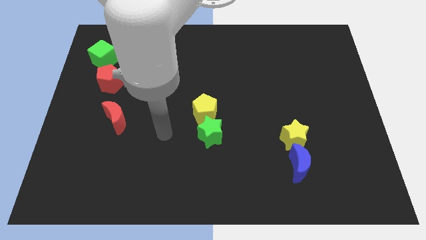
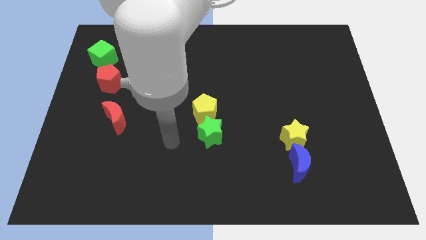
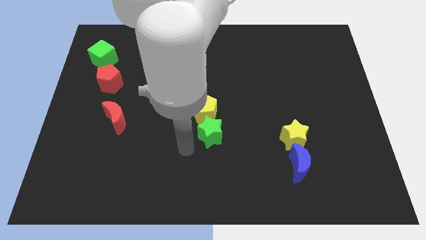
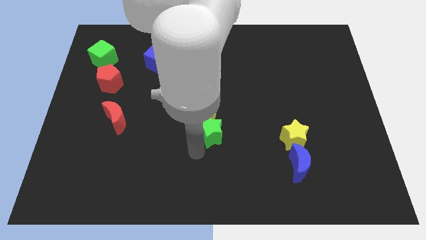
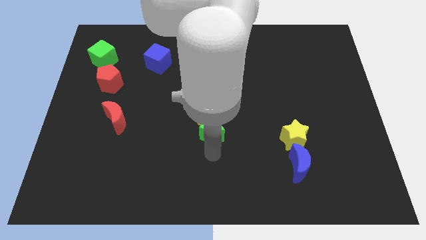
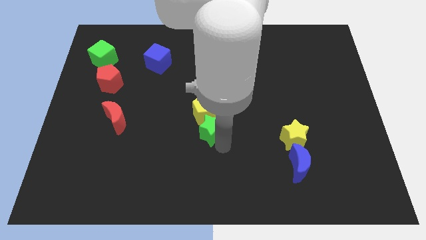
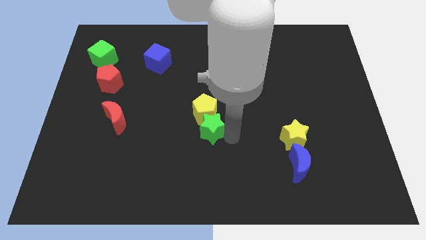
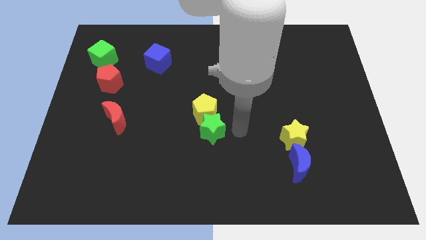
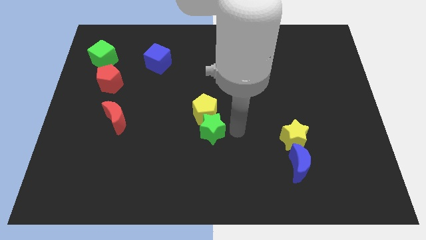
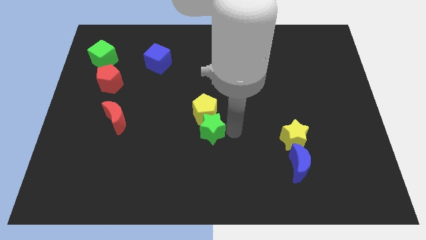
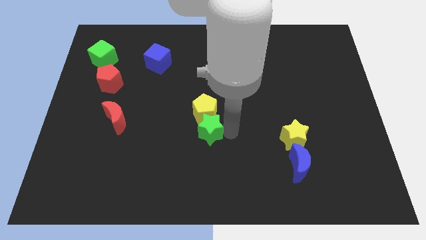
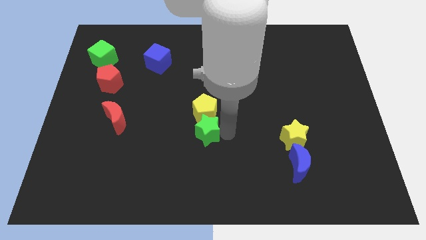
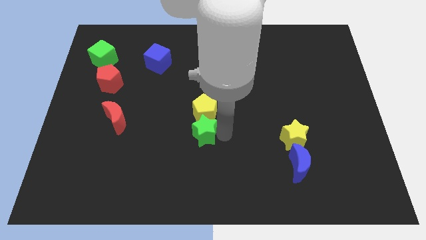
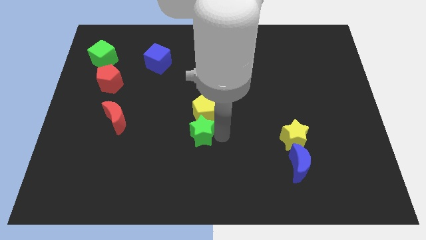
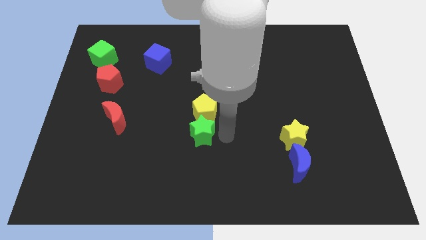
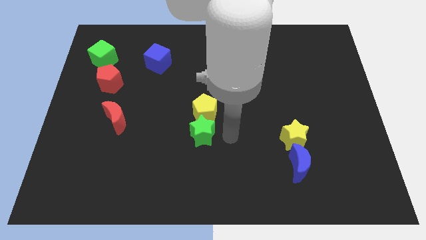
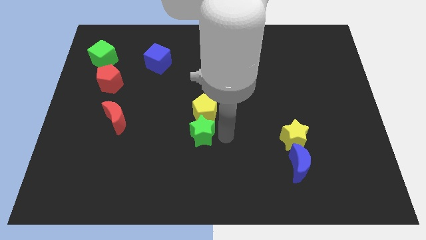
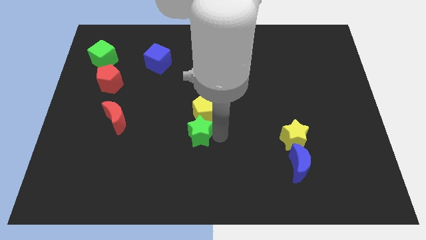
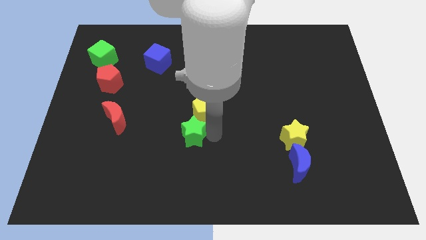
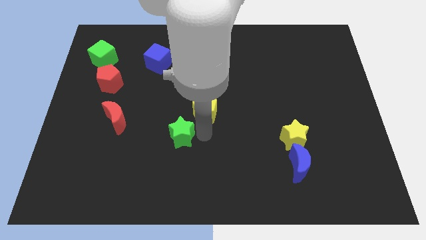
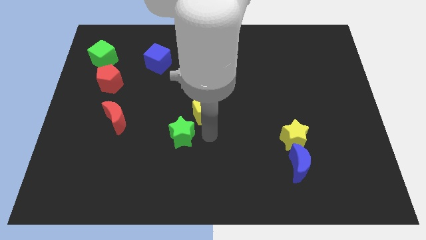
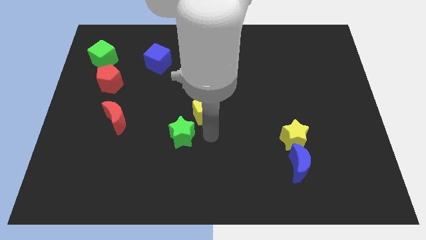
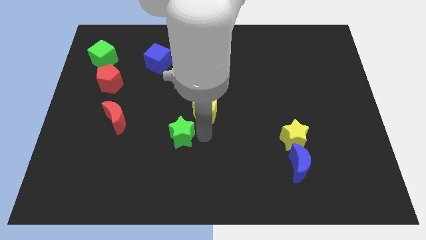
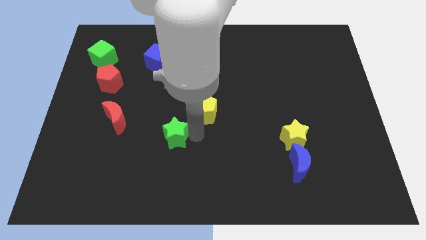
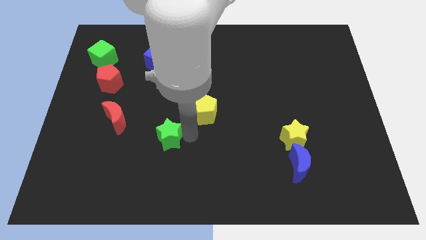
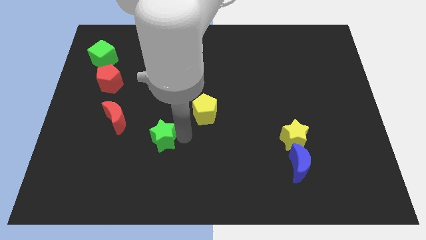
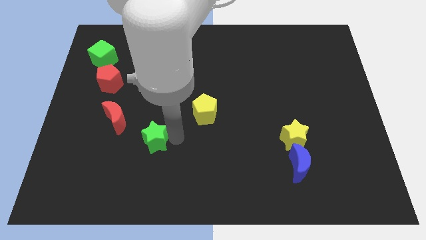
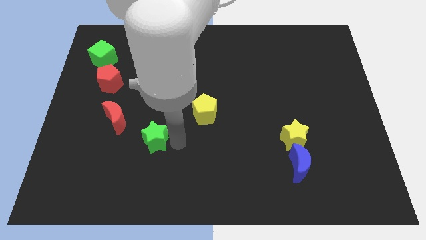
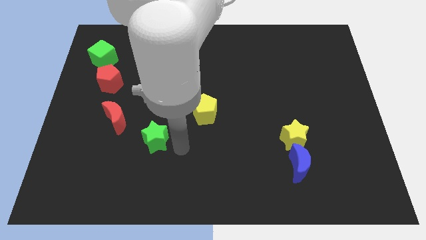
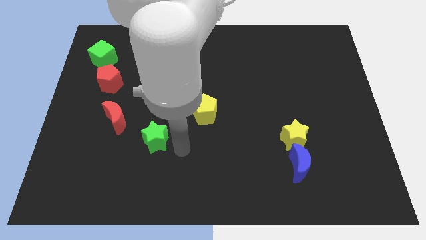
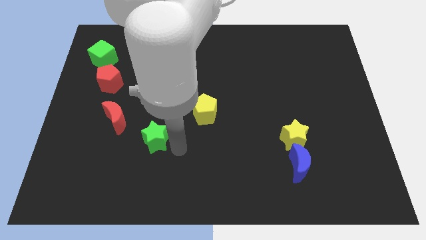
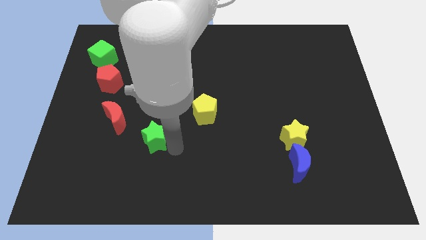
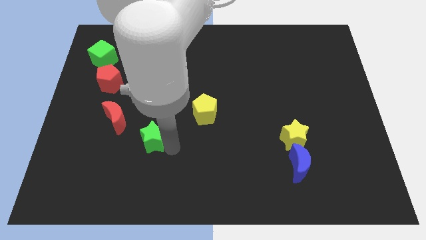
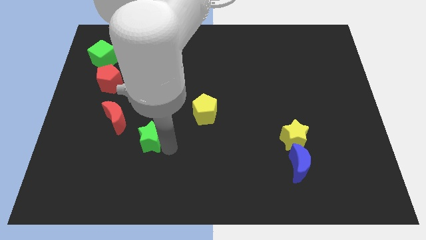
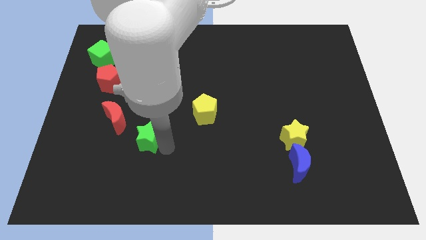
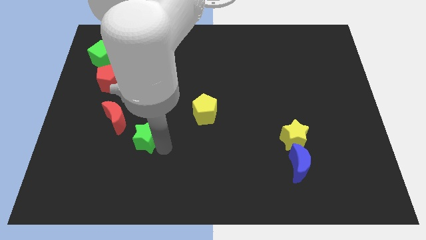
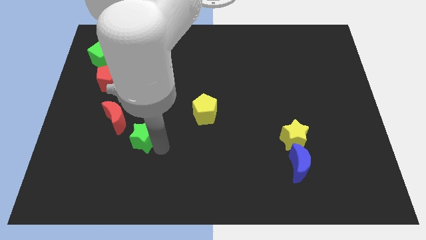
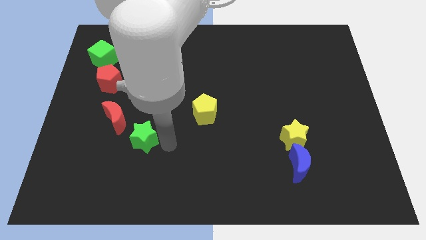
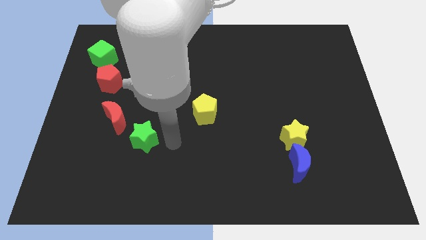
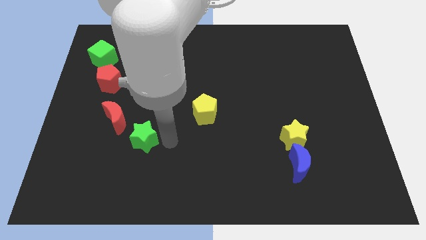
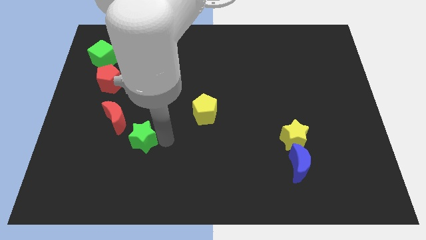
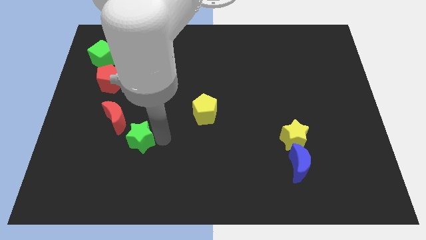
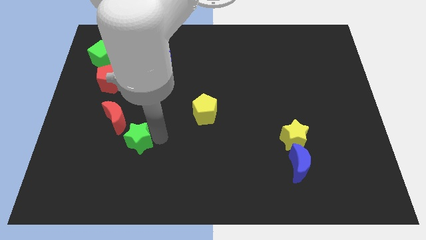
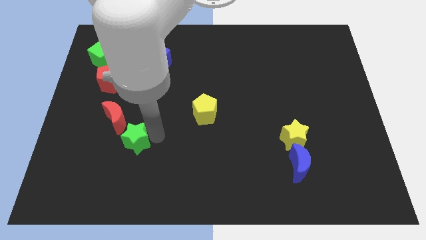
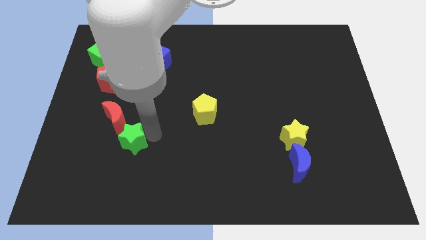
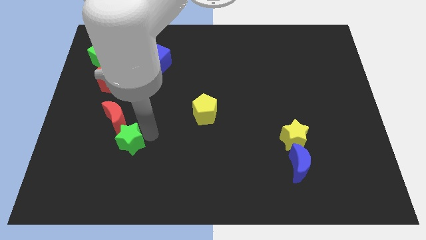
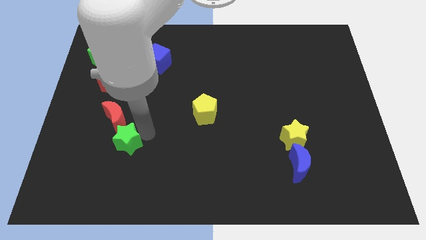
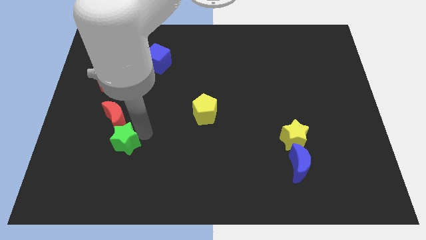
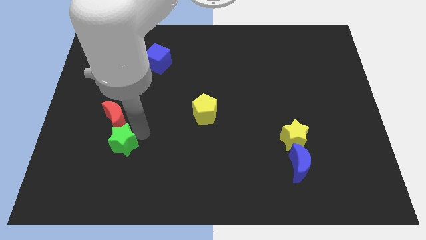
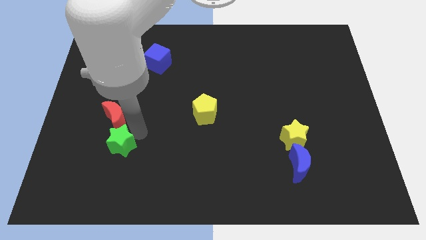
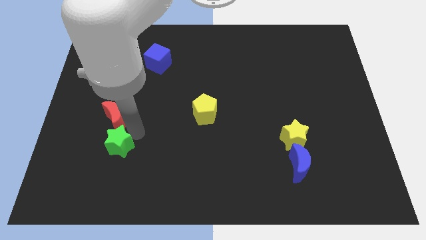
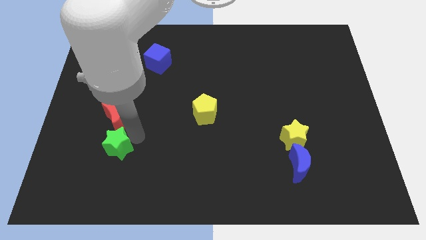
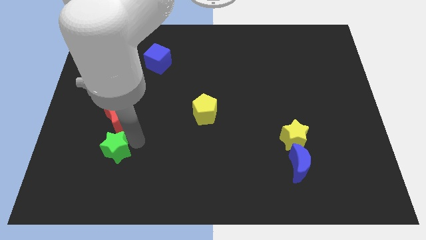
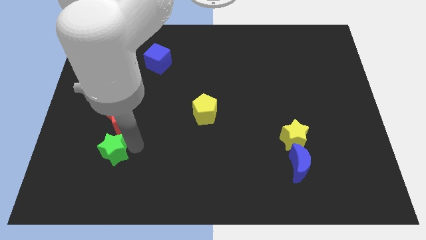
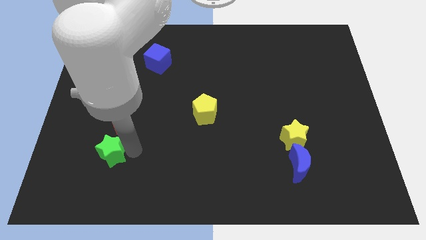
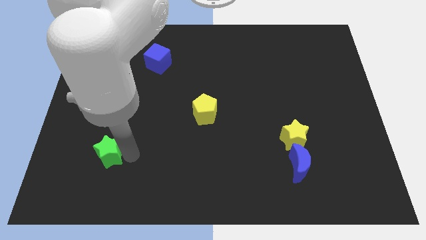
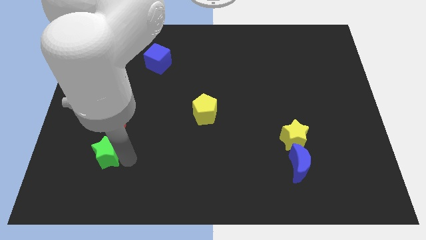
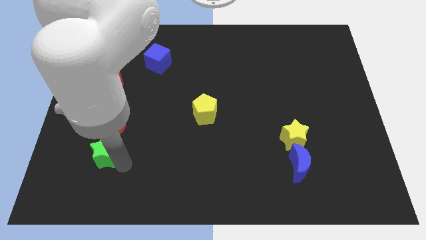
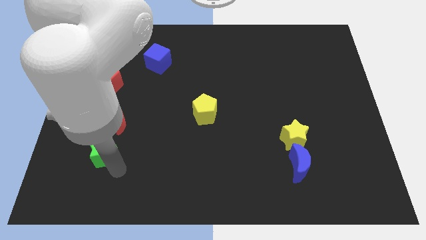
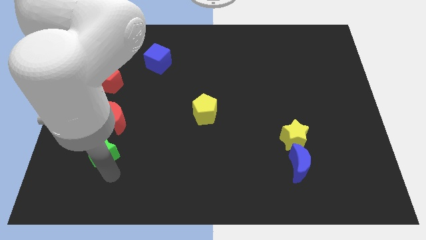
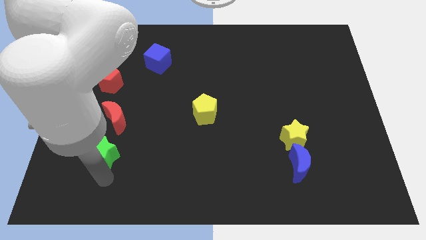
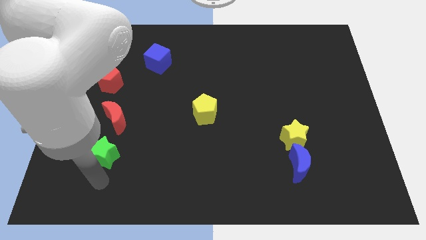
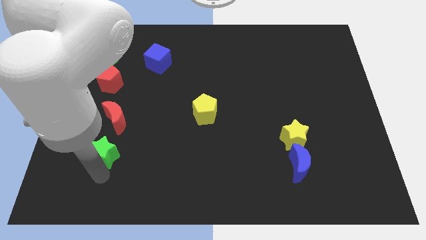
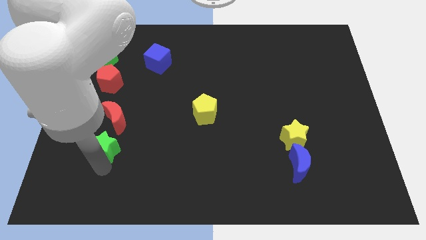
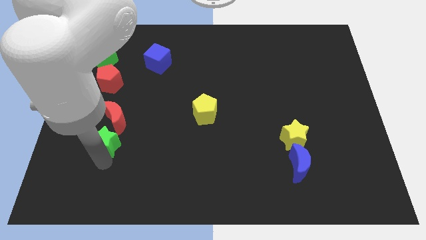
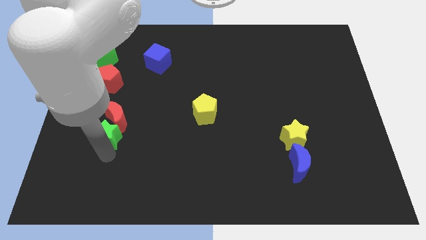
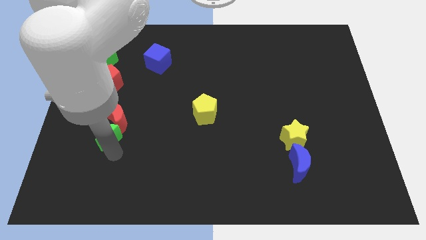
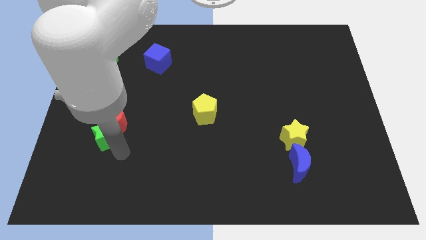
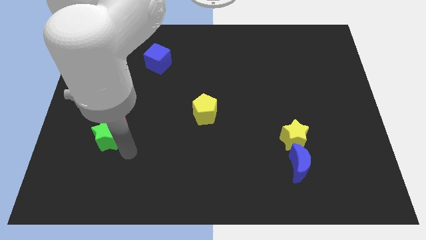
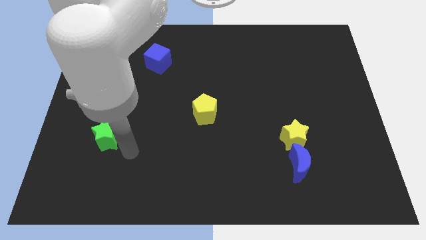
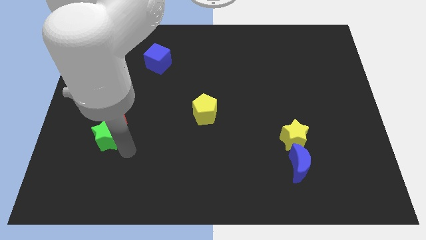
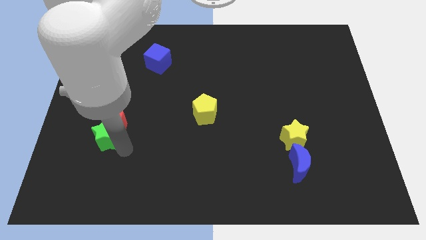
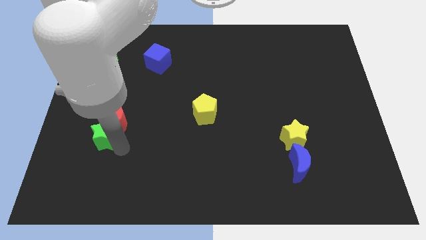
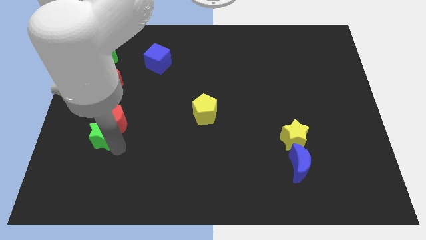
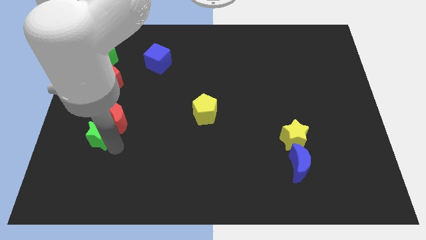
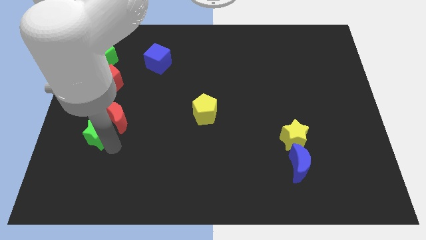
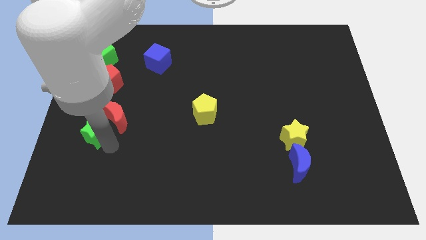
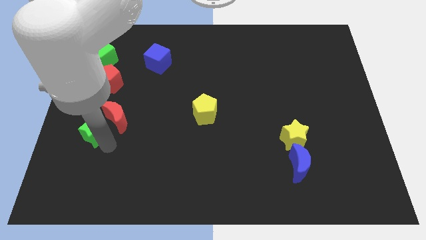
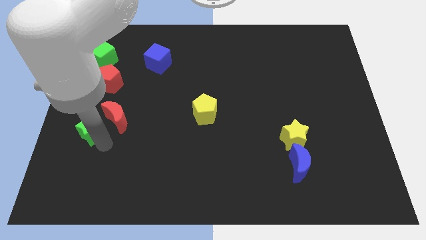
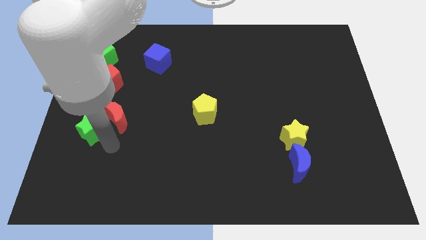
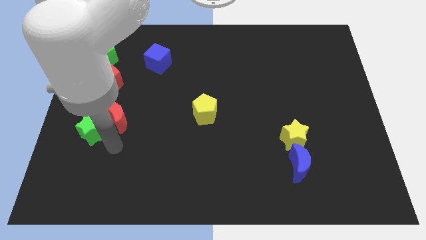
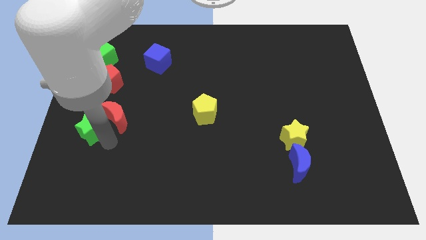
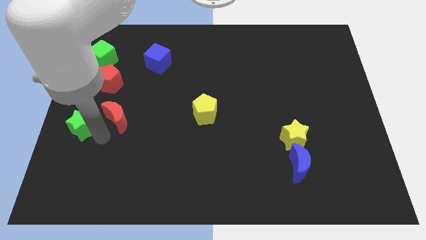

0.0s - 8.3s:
push the green star to the left side
